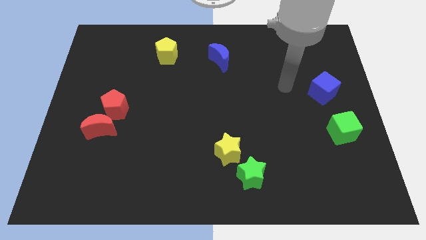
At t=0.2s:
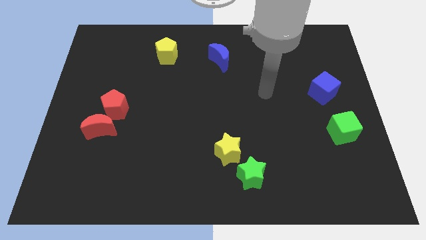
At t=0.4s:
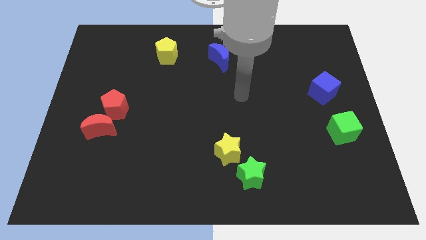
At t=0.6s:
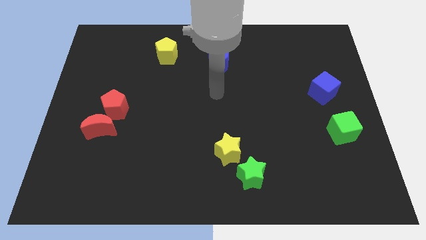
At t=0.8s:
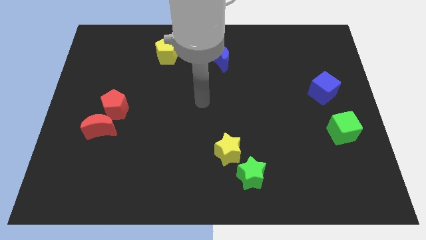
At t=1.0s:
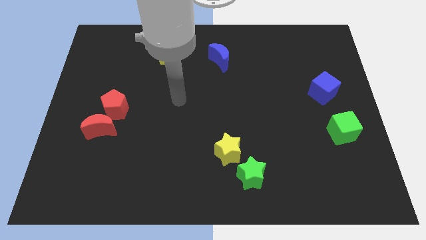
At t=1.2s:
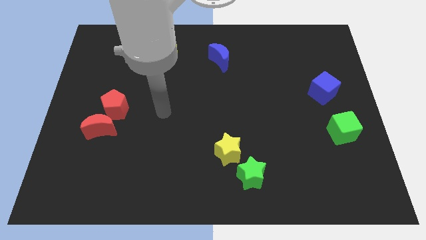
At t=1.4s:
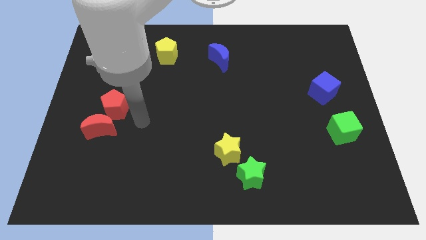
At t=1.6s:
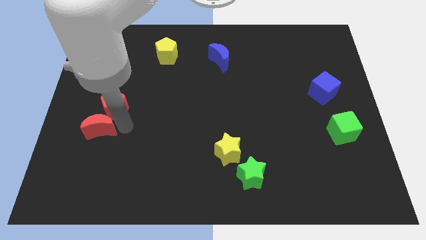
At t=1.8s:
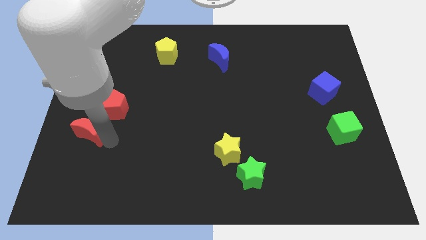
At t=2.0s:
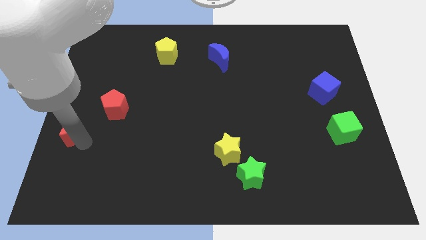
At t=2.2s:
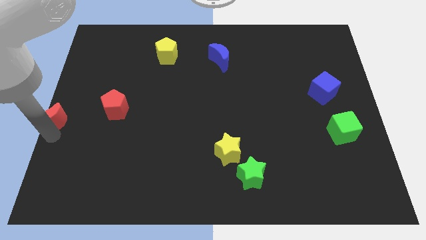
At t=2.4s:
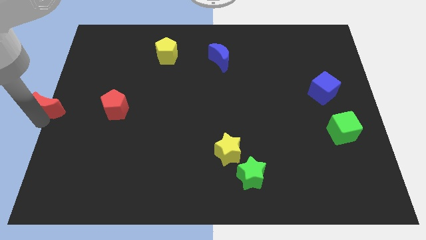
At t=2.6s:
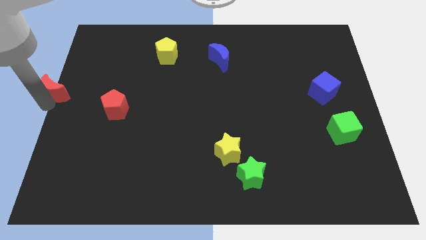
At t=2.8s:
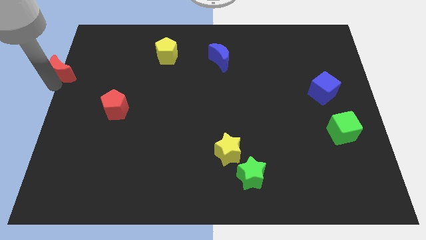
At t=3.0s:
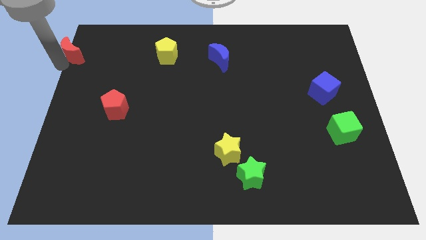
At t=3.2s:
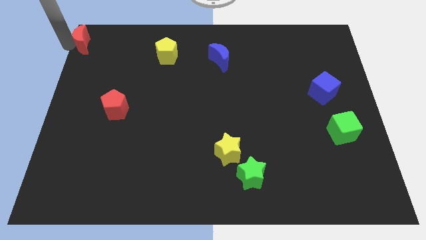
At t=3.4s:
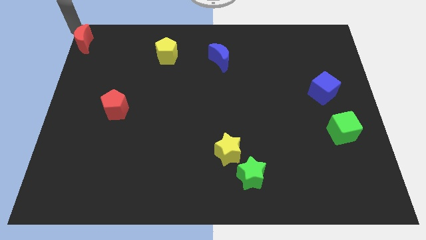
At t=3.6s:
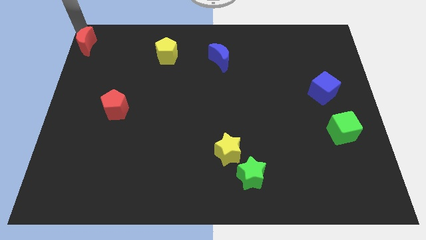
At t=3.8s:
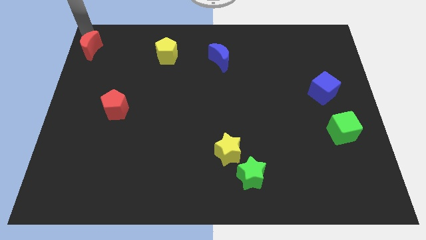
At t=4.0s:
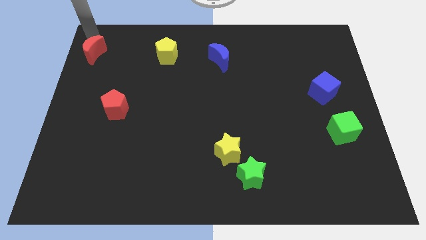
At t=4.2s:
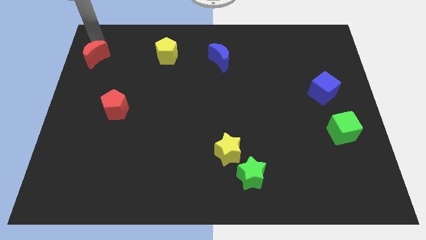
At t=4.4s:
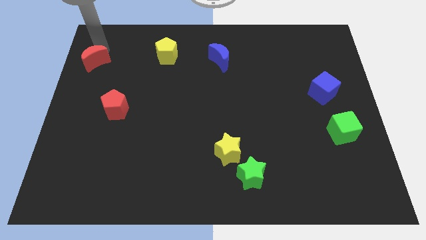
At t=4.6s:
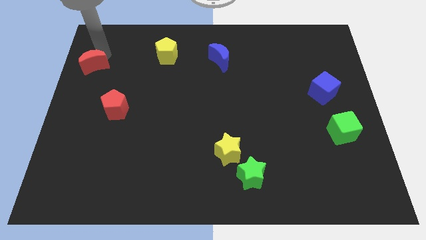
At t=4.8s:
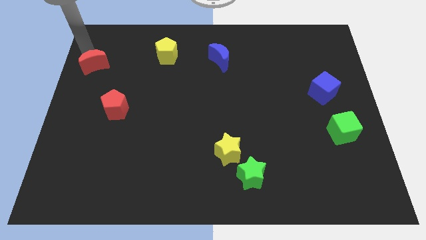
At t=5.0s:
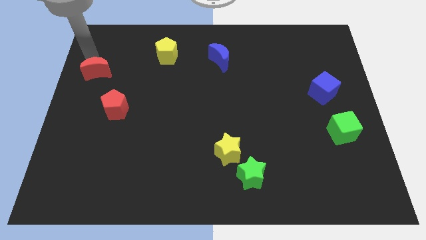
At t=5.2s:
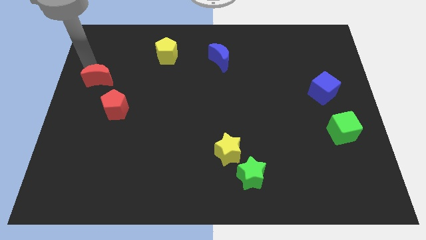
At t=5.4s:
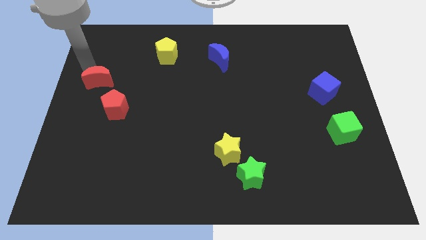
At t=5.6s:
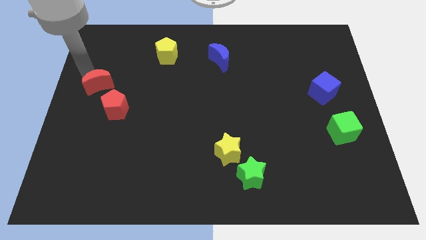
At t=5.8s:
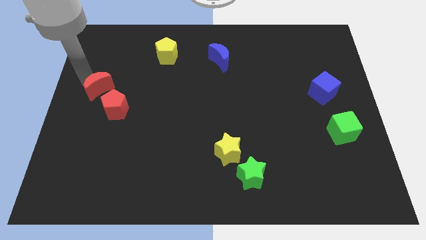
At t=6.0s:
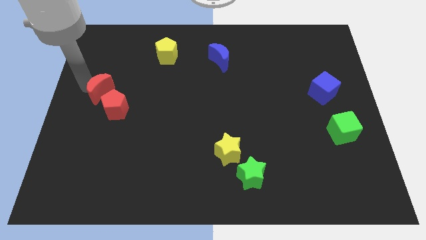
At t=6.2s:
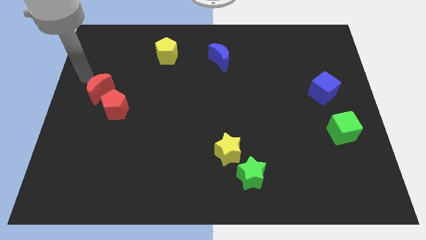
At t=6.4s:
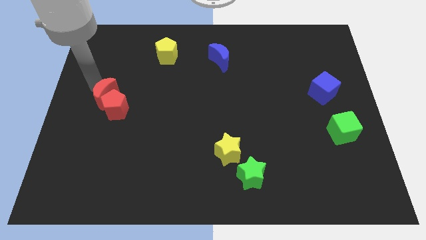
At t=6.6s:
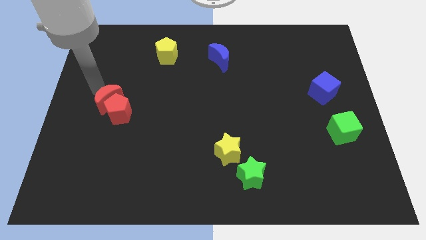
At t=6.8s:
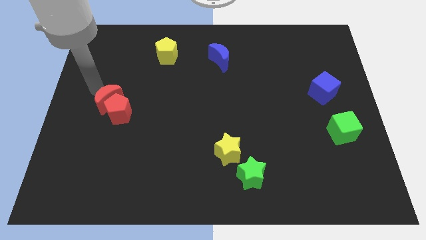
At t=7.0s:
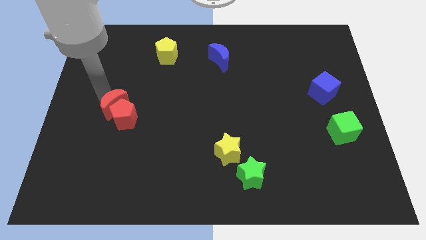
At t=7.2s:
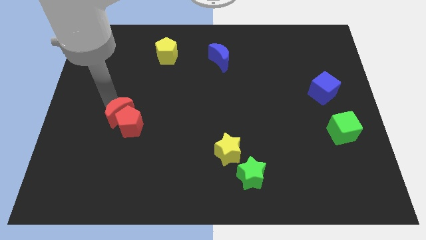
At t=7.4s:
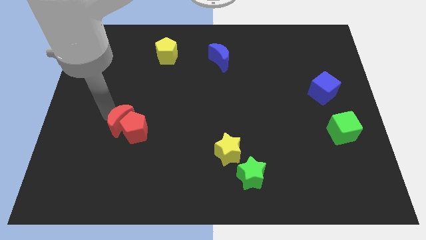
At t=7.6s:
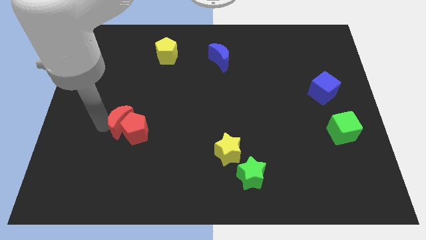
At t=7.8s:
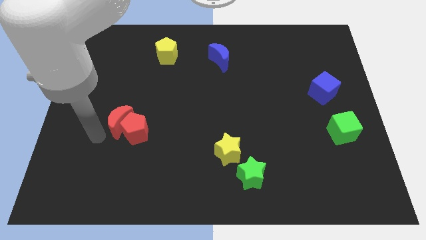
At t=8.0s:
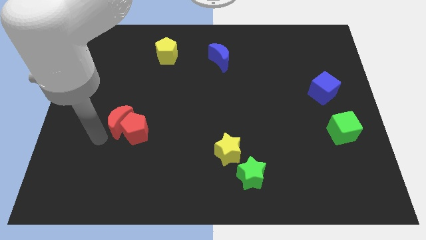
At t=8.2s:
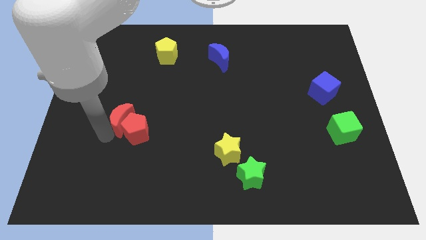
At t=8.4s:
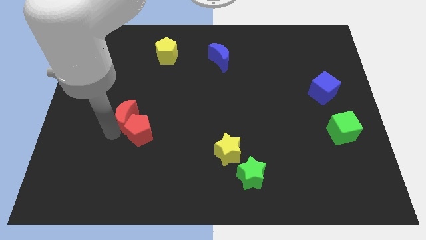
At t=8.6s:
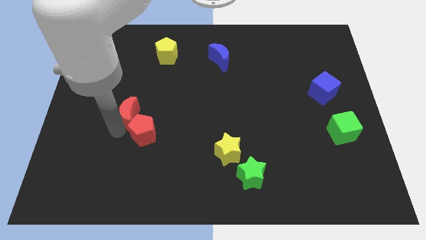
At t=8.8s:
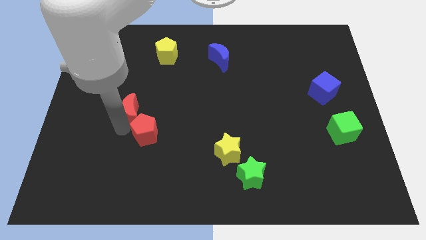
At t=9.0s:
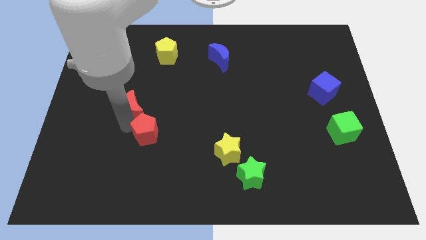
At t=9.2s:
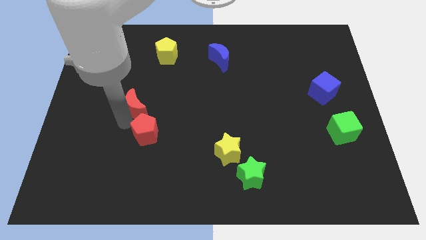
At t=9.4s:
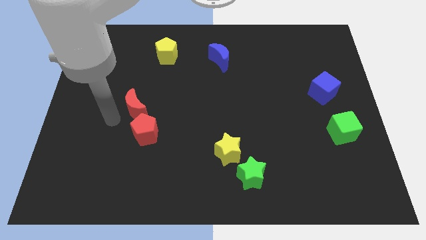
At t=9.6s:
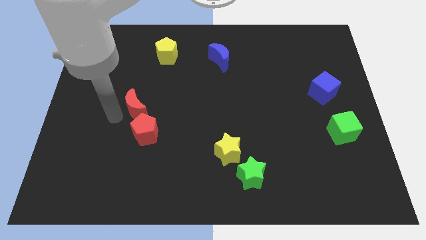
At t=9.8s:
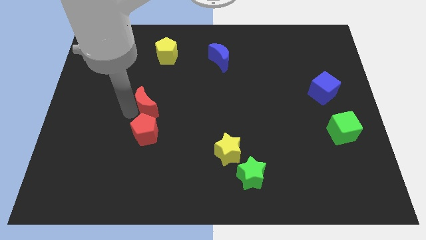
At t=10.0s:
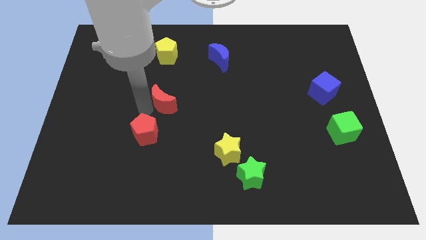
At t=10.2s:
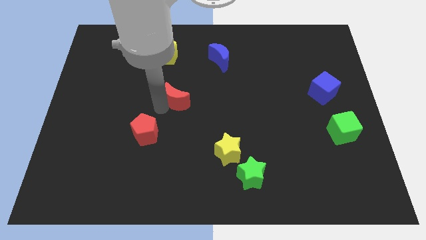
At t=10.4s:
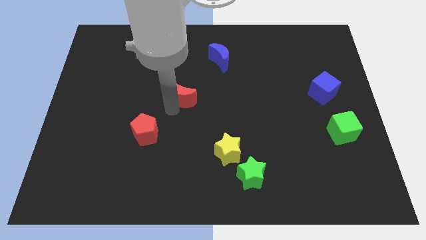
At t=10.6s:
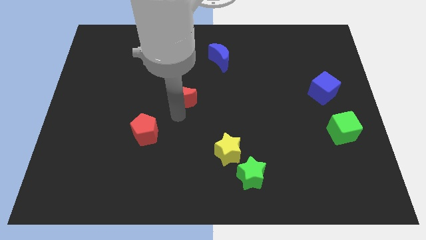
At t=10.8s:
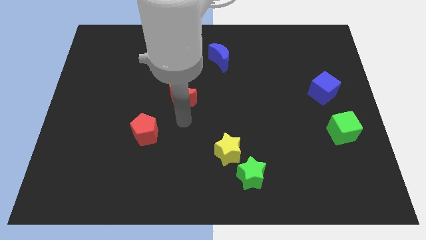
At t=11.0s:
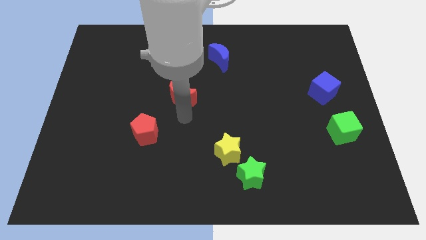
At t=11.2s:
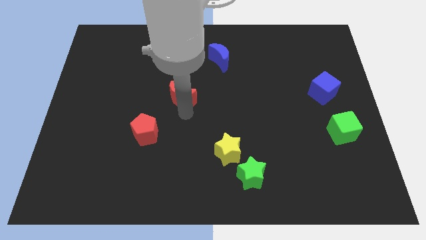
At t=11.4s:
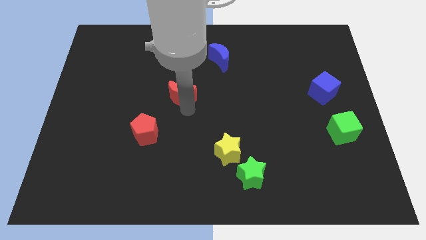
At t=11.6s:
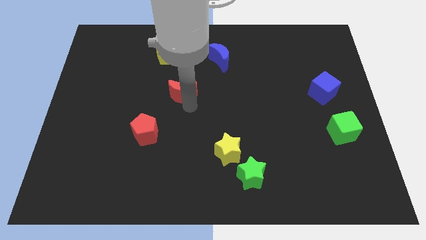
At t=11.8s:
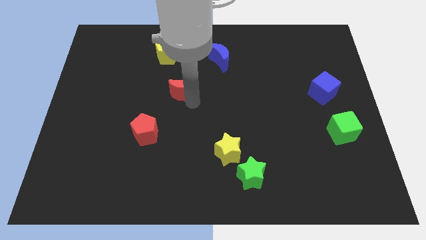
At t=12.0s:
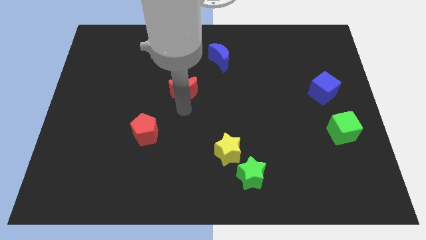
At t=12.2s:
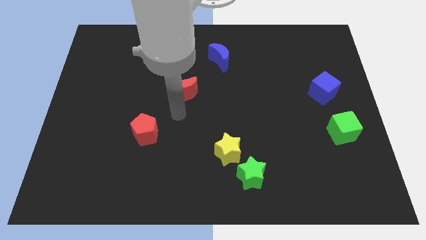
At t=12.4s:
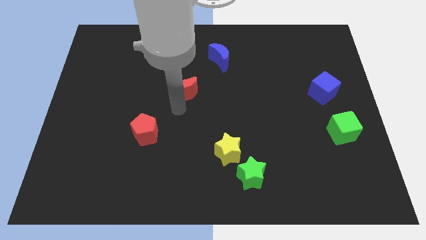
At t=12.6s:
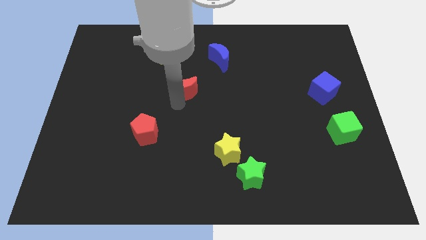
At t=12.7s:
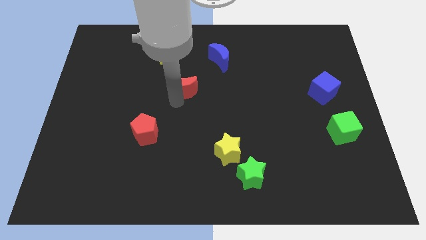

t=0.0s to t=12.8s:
push the red moon up and right diagonally

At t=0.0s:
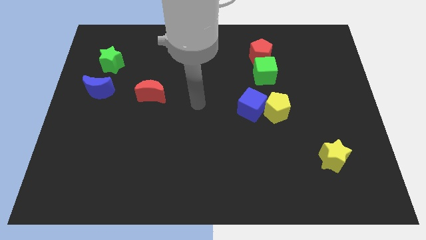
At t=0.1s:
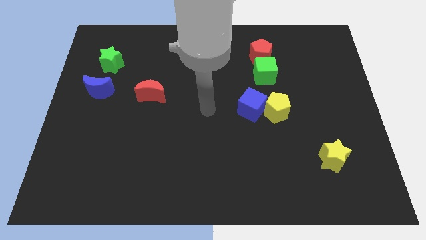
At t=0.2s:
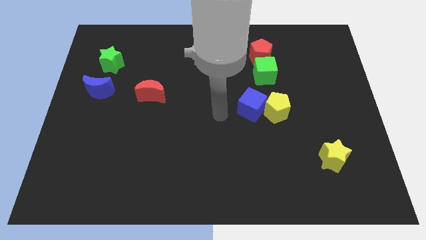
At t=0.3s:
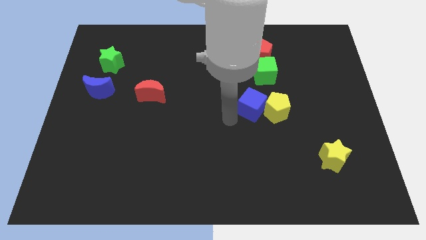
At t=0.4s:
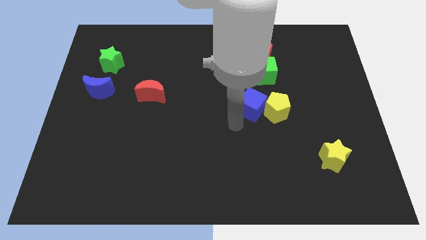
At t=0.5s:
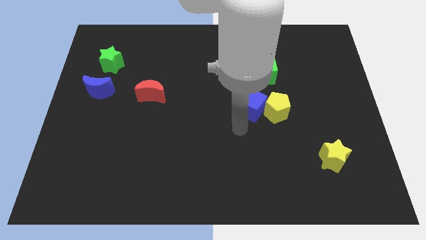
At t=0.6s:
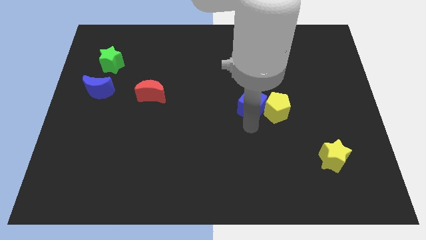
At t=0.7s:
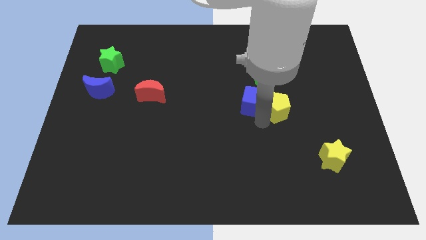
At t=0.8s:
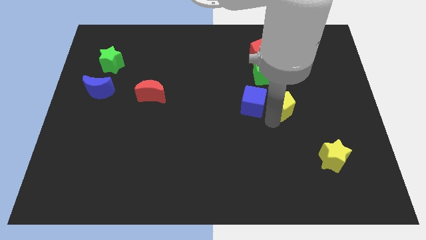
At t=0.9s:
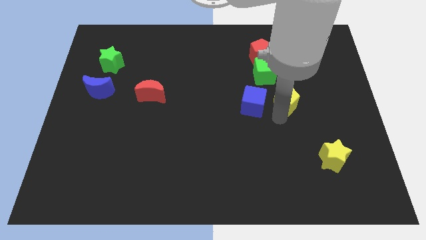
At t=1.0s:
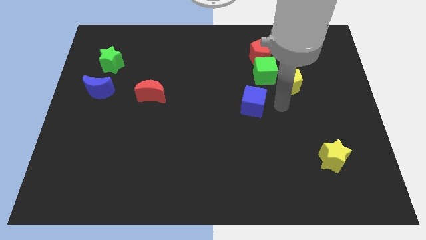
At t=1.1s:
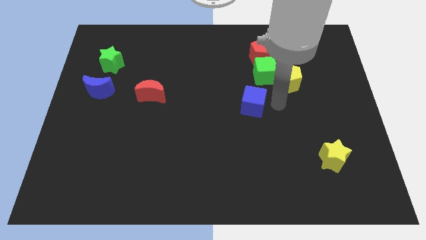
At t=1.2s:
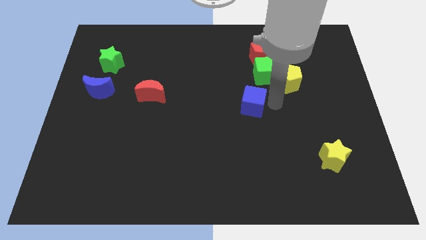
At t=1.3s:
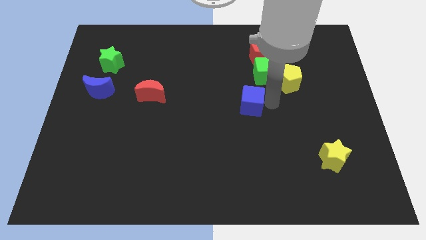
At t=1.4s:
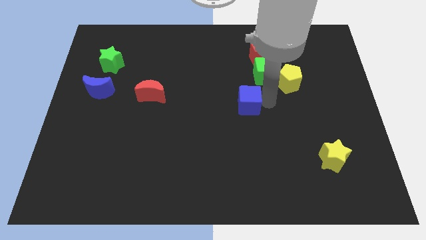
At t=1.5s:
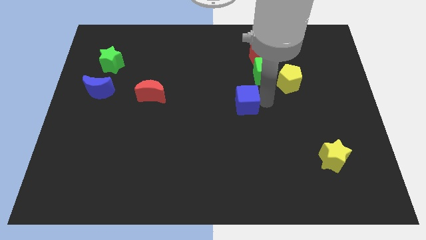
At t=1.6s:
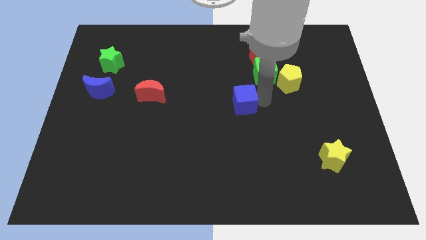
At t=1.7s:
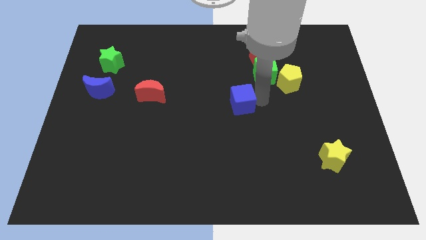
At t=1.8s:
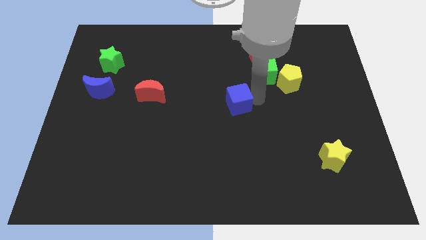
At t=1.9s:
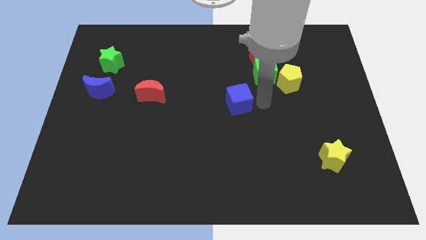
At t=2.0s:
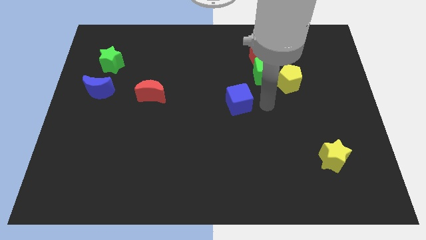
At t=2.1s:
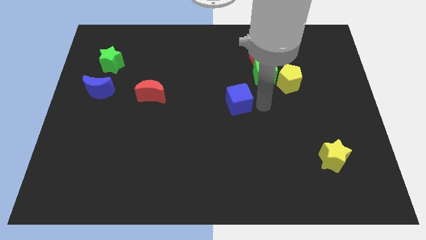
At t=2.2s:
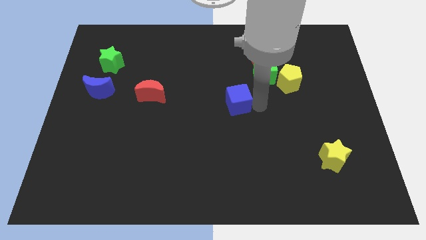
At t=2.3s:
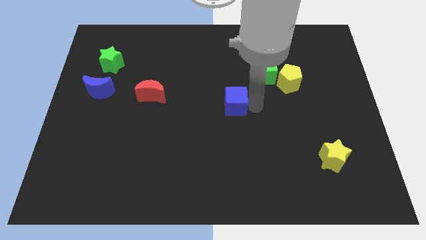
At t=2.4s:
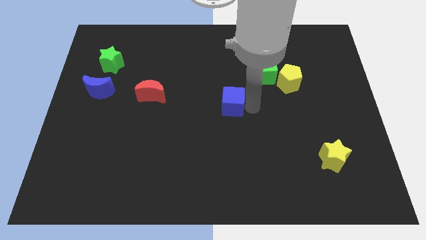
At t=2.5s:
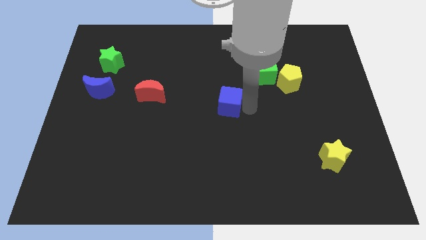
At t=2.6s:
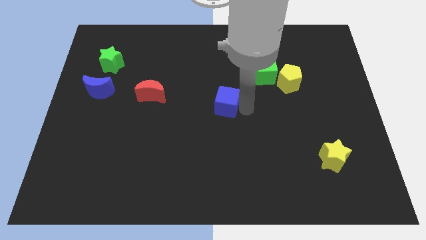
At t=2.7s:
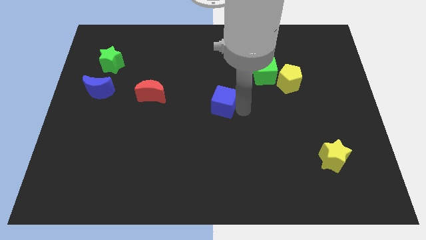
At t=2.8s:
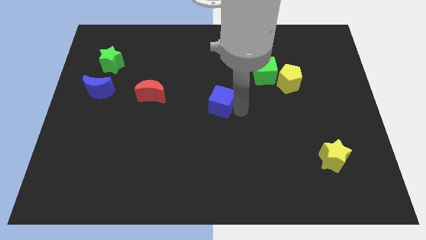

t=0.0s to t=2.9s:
slightly push the blue cube left
